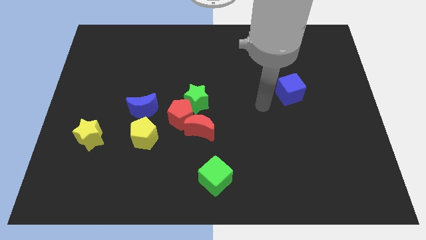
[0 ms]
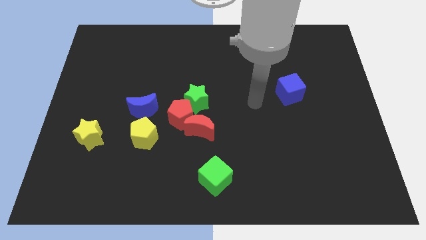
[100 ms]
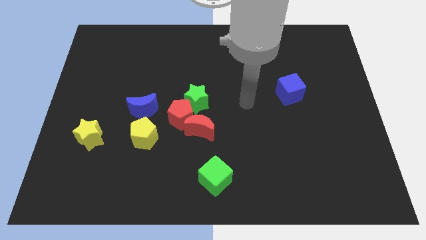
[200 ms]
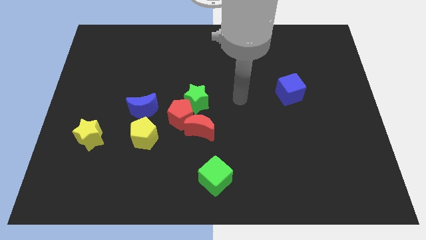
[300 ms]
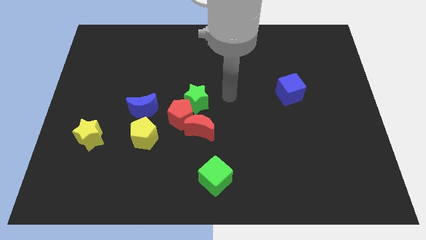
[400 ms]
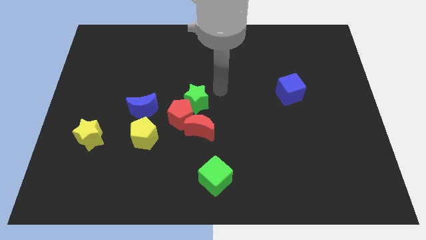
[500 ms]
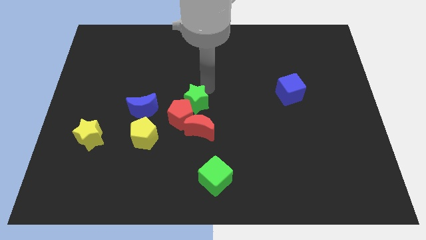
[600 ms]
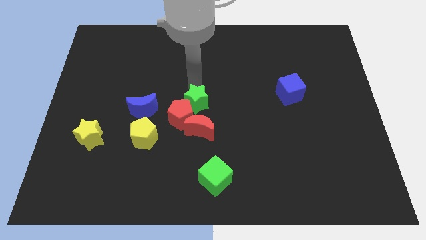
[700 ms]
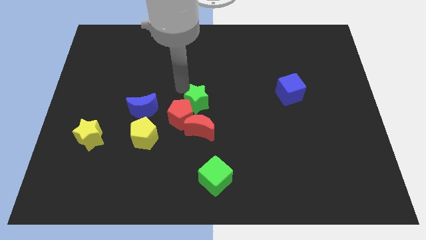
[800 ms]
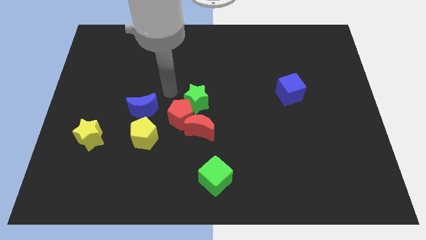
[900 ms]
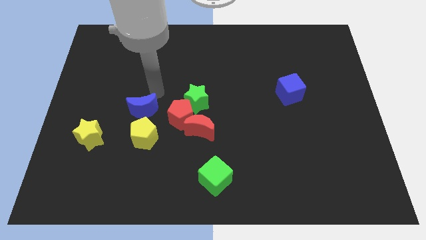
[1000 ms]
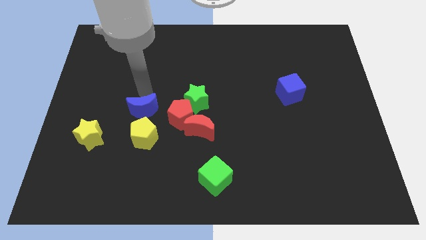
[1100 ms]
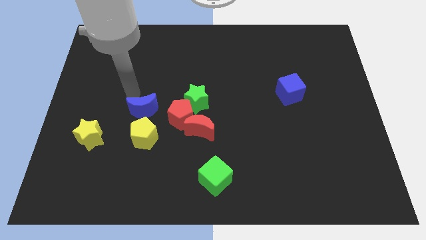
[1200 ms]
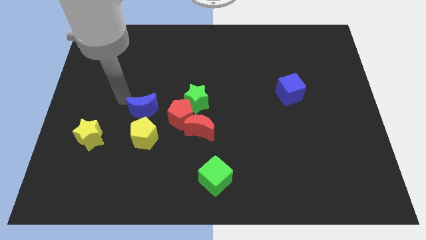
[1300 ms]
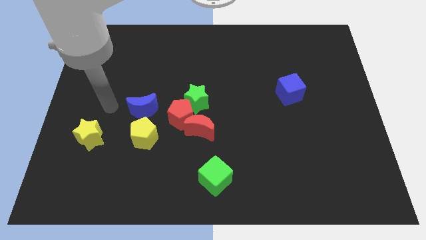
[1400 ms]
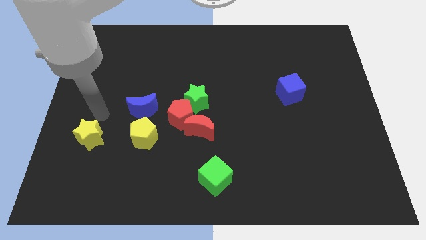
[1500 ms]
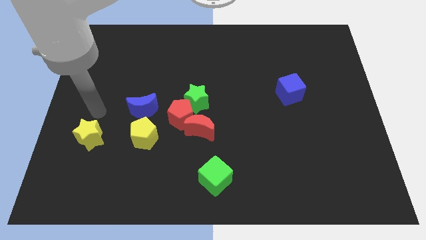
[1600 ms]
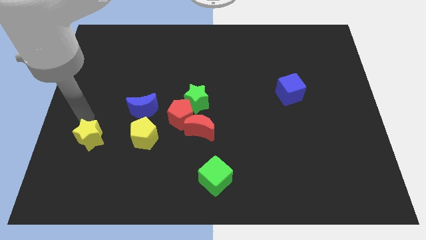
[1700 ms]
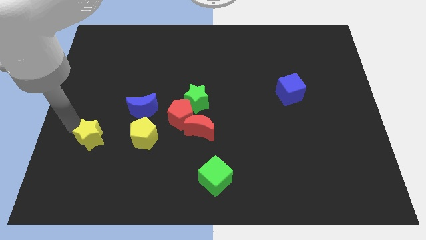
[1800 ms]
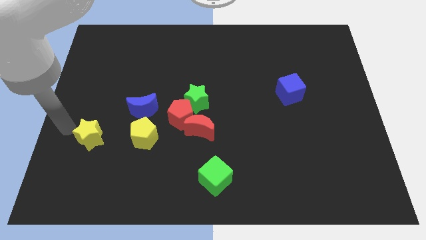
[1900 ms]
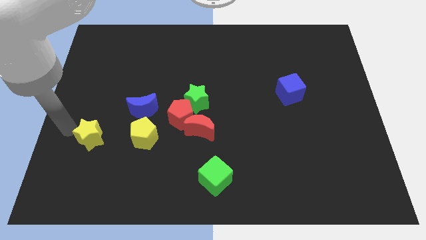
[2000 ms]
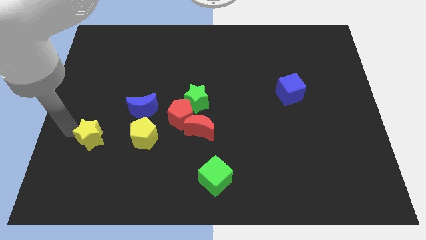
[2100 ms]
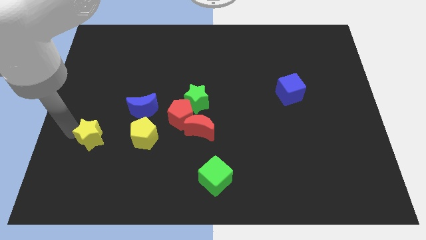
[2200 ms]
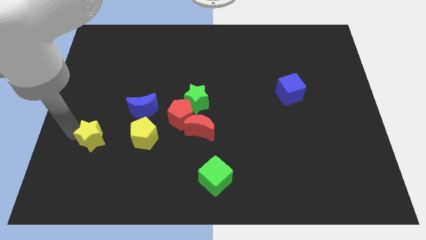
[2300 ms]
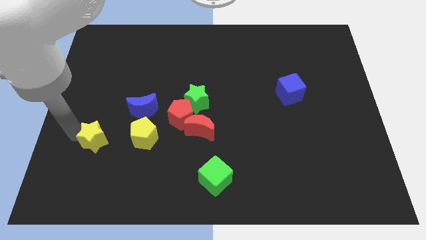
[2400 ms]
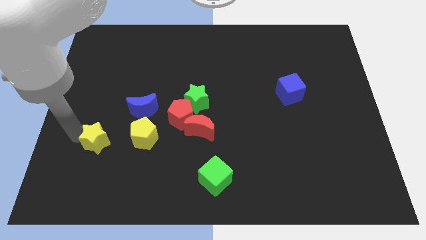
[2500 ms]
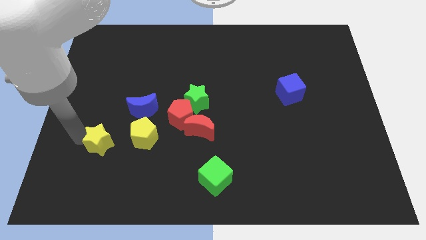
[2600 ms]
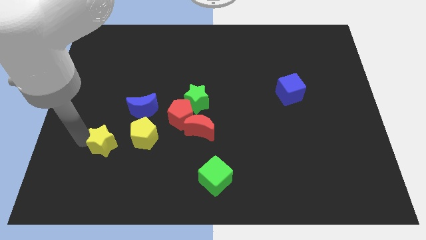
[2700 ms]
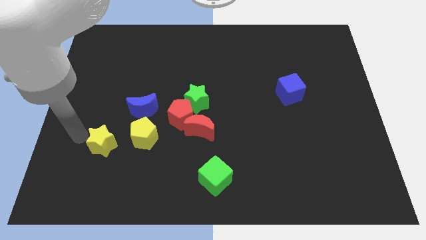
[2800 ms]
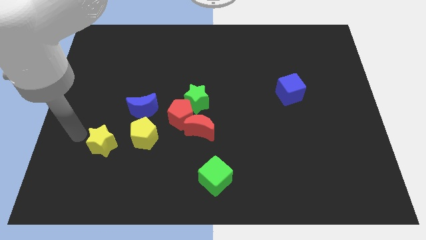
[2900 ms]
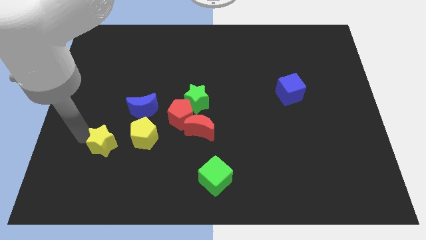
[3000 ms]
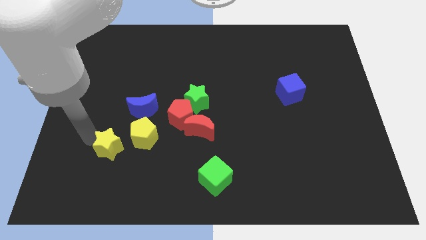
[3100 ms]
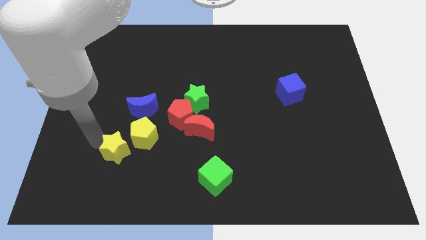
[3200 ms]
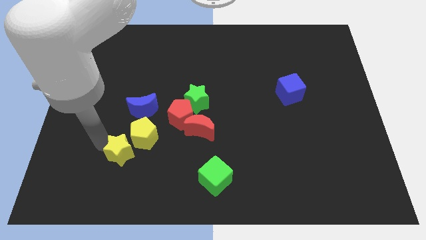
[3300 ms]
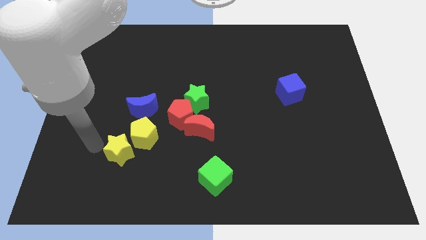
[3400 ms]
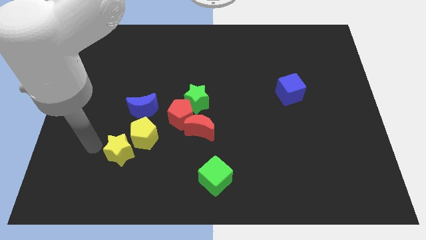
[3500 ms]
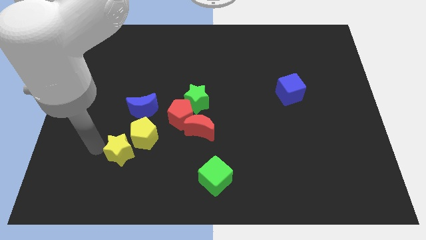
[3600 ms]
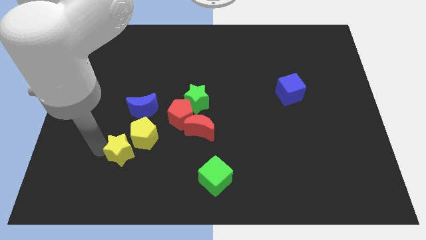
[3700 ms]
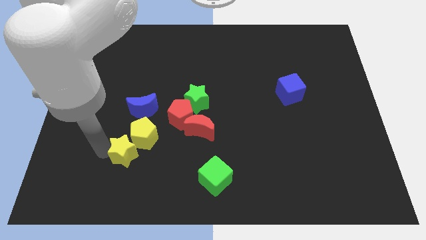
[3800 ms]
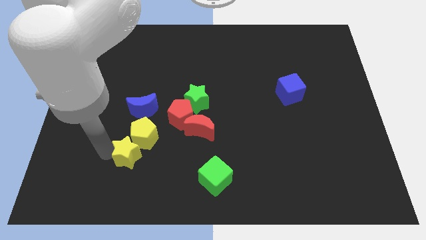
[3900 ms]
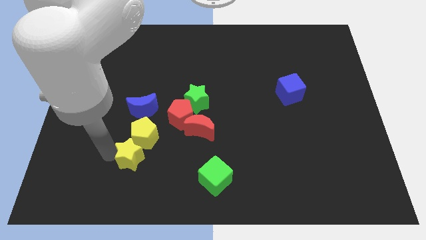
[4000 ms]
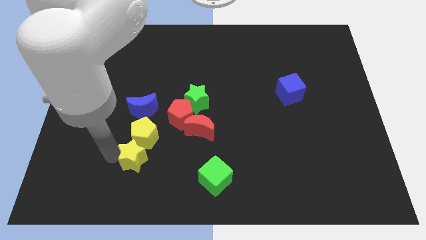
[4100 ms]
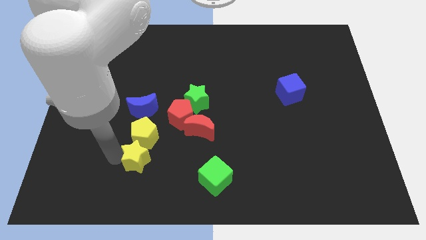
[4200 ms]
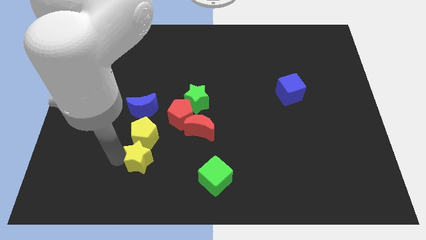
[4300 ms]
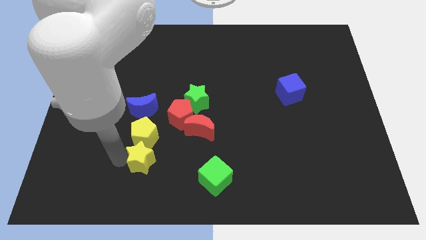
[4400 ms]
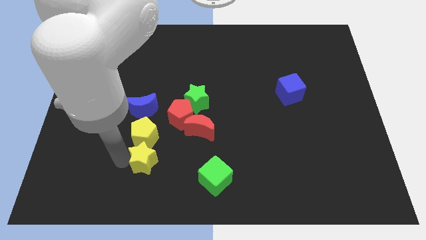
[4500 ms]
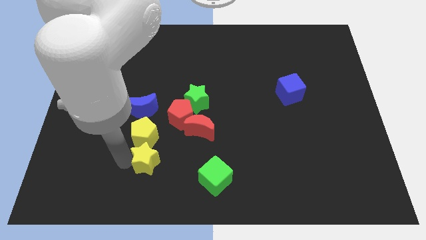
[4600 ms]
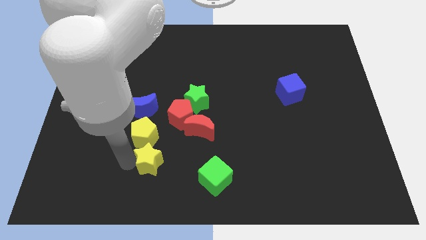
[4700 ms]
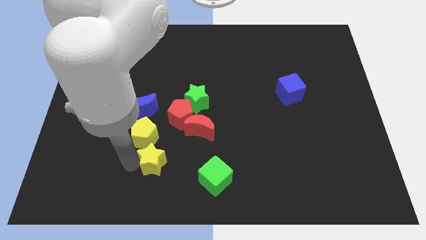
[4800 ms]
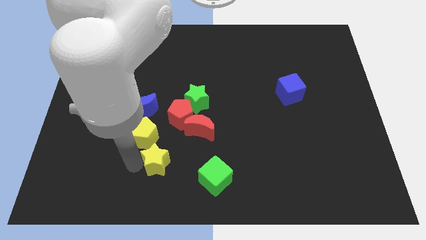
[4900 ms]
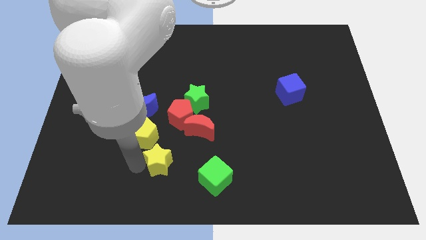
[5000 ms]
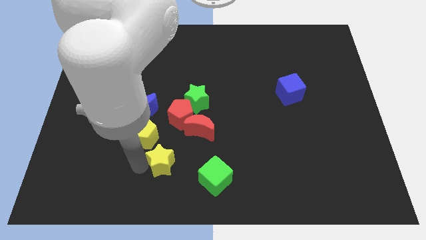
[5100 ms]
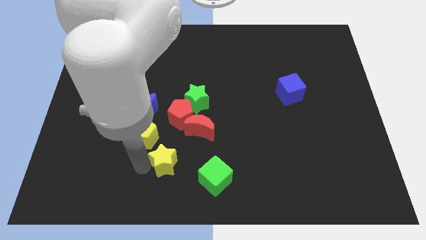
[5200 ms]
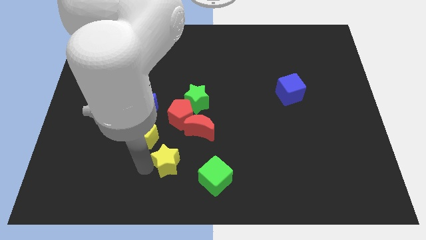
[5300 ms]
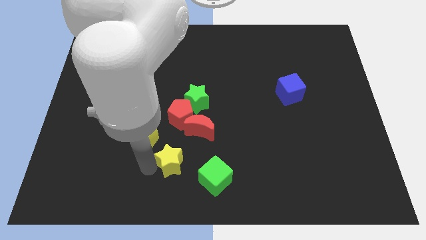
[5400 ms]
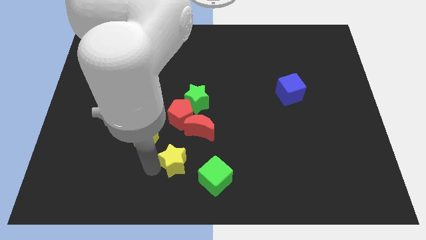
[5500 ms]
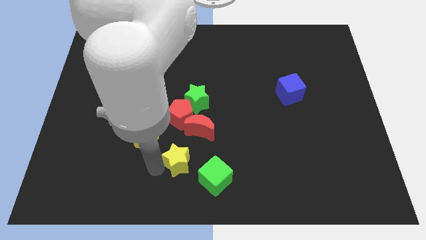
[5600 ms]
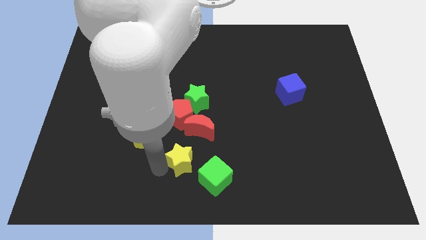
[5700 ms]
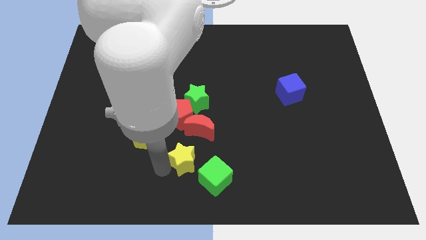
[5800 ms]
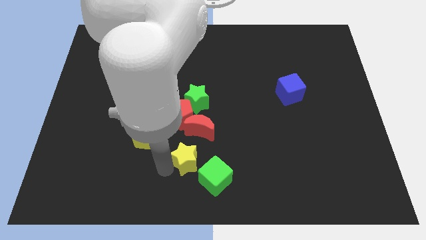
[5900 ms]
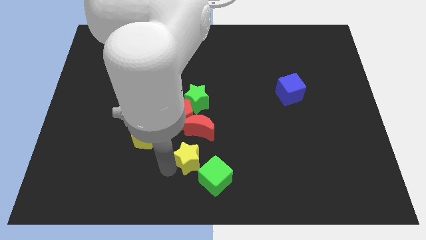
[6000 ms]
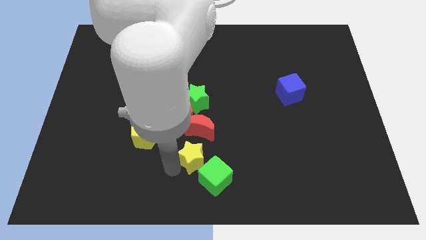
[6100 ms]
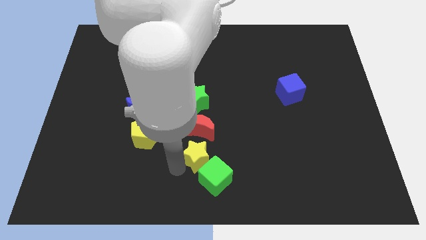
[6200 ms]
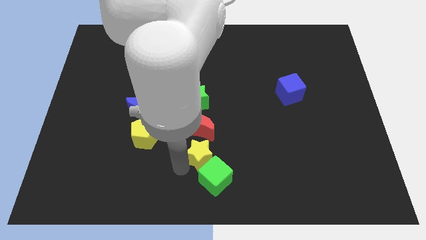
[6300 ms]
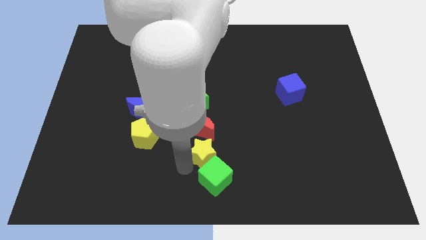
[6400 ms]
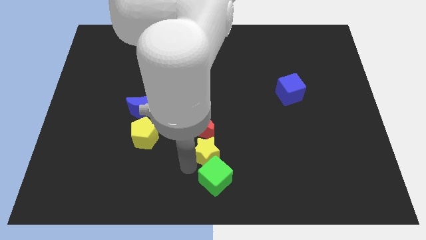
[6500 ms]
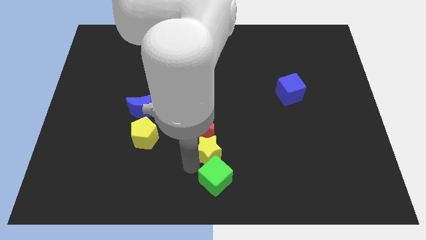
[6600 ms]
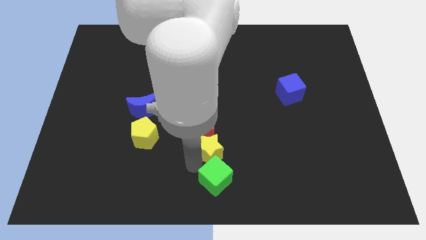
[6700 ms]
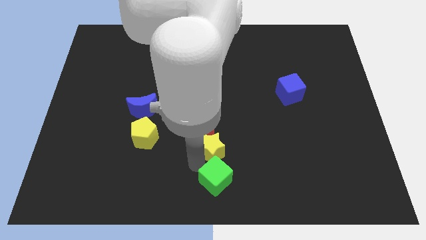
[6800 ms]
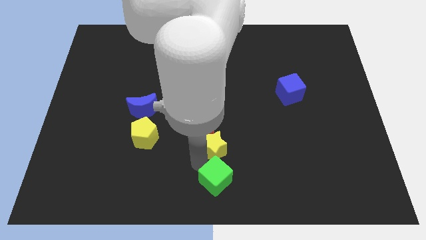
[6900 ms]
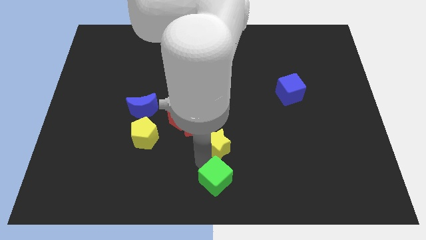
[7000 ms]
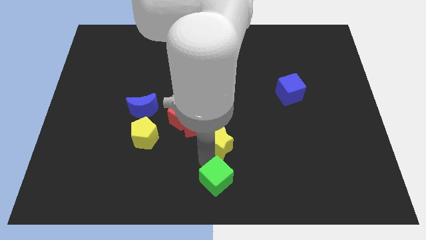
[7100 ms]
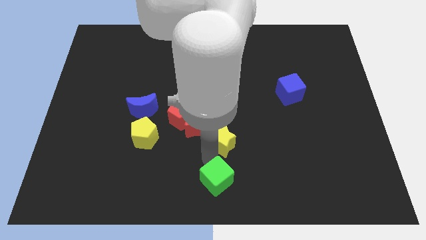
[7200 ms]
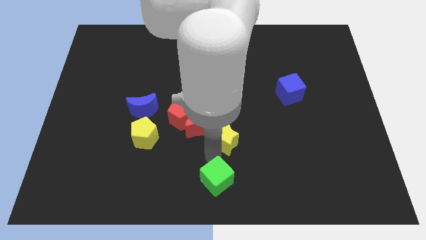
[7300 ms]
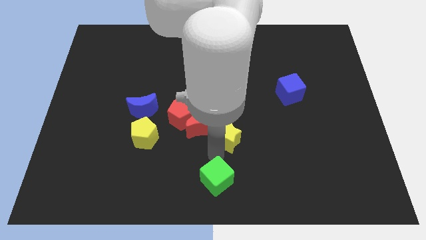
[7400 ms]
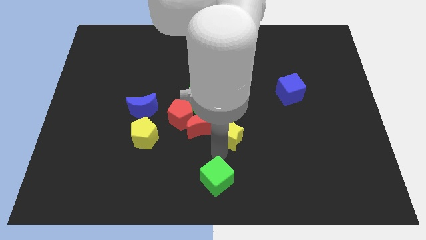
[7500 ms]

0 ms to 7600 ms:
slide the yellow star to the bottom right side of the green star
